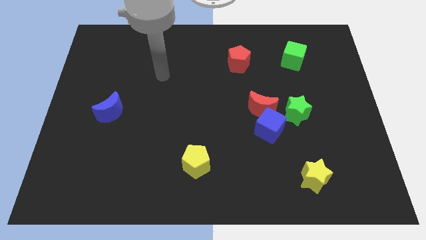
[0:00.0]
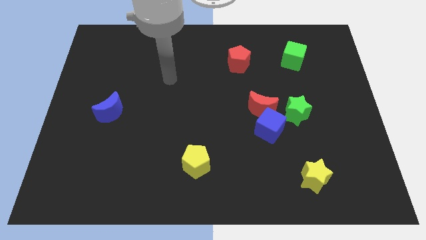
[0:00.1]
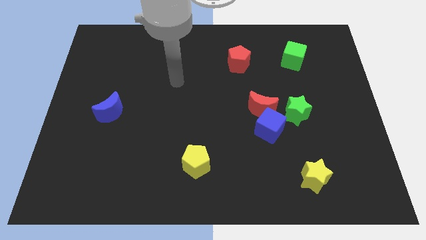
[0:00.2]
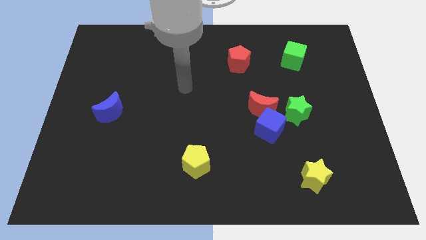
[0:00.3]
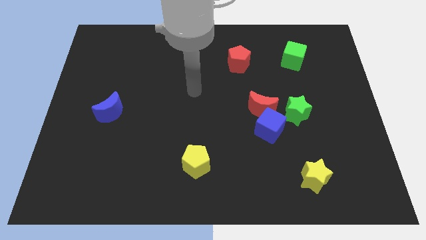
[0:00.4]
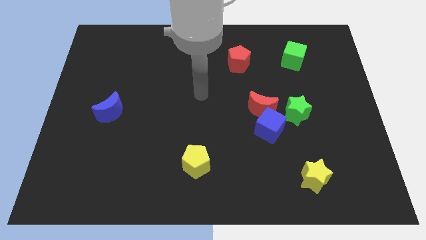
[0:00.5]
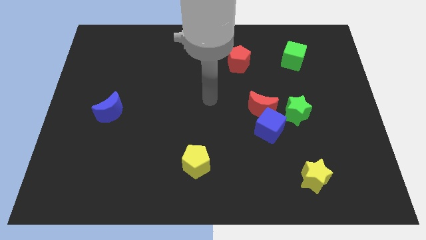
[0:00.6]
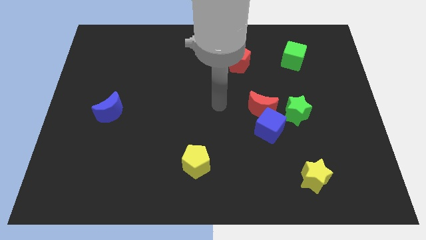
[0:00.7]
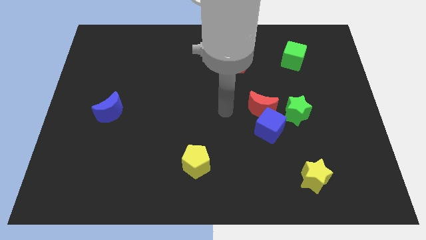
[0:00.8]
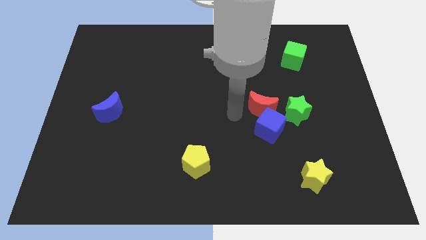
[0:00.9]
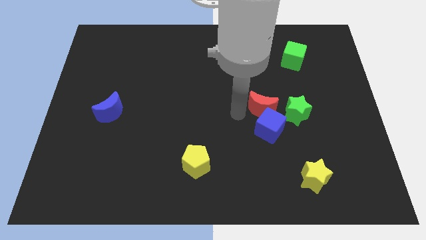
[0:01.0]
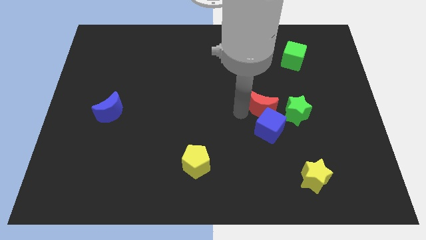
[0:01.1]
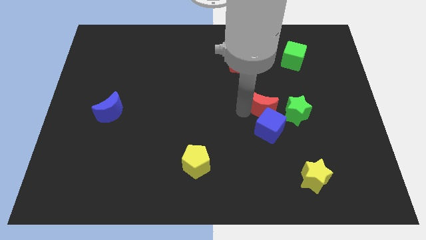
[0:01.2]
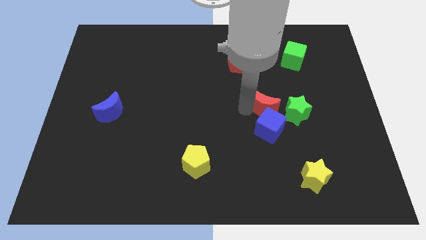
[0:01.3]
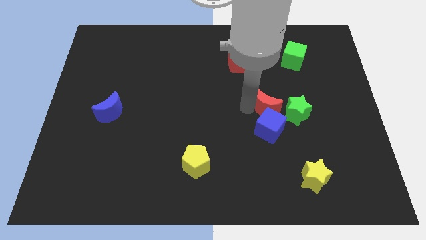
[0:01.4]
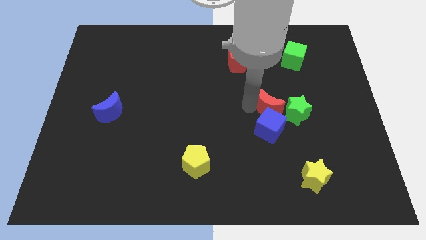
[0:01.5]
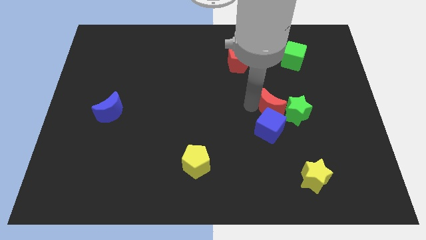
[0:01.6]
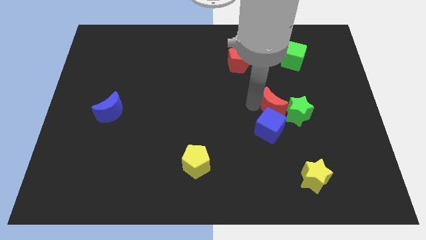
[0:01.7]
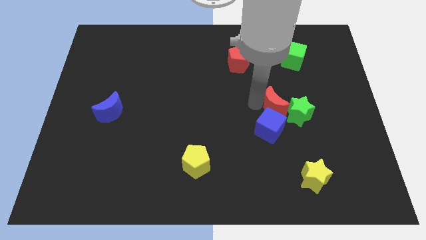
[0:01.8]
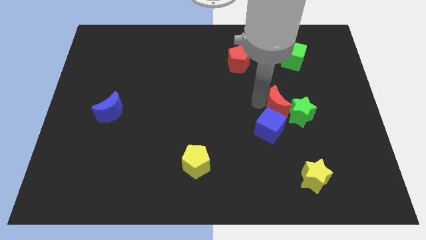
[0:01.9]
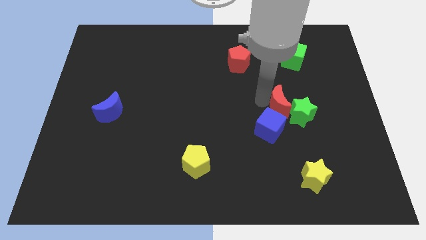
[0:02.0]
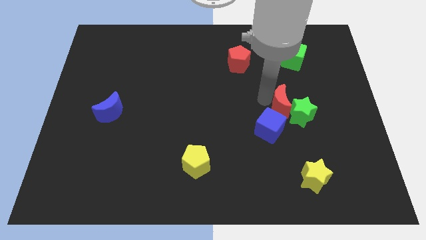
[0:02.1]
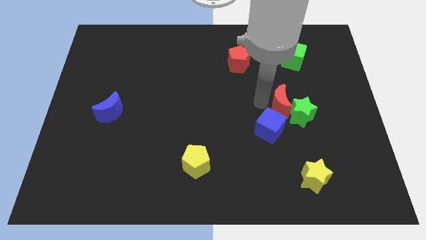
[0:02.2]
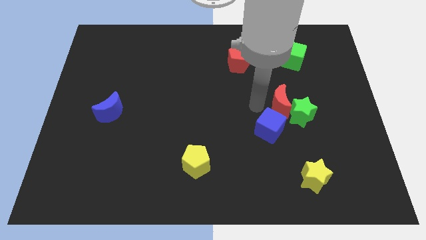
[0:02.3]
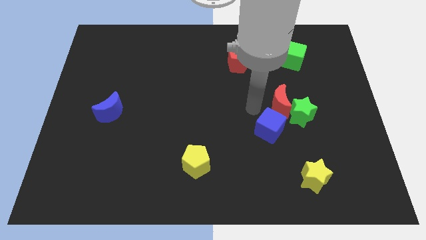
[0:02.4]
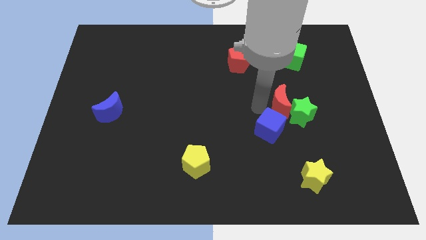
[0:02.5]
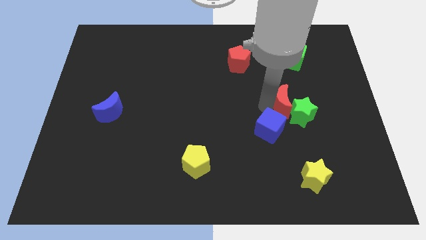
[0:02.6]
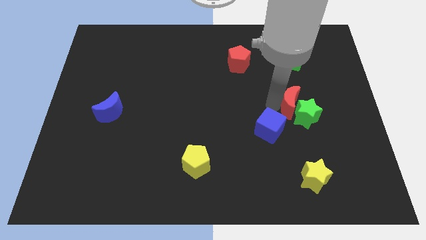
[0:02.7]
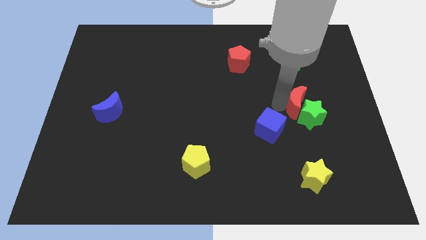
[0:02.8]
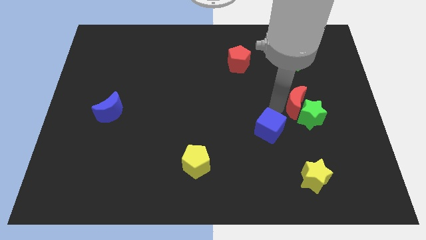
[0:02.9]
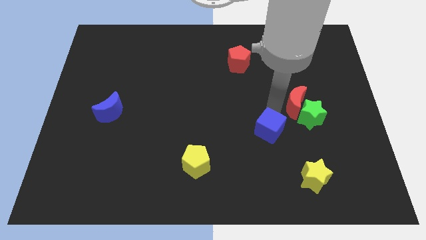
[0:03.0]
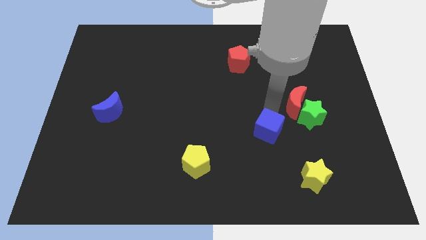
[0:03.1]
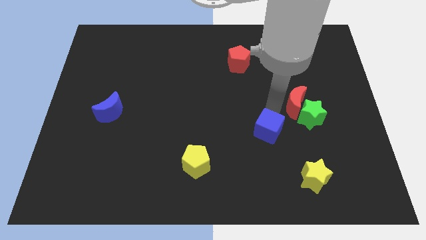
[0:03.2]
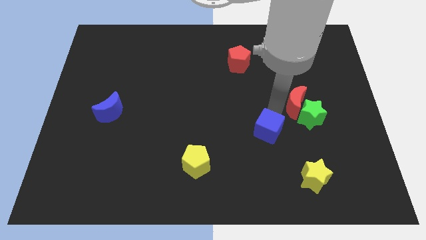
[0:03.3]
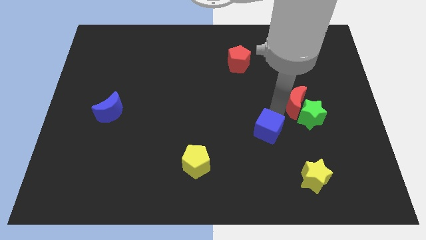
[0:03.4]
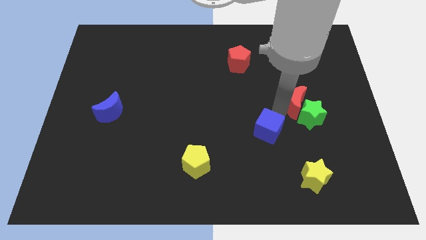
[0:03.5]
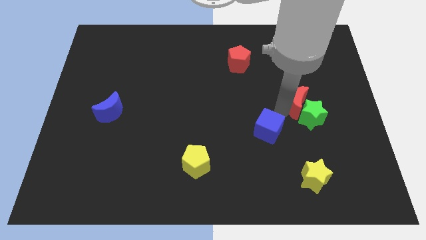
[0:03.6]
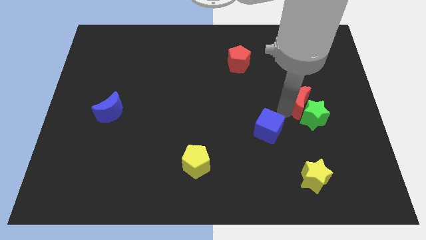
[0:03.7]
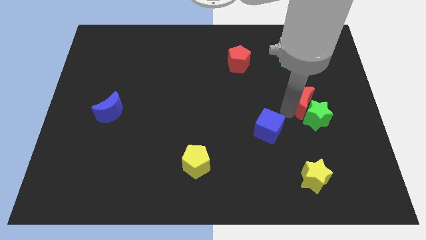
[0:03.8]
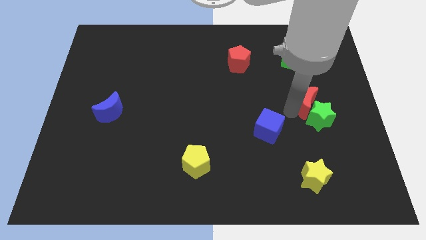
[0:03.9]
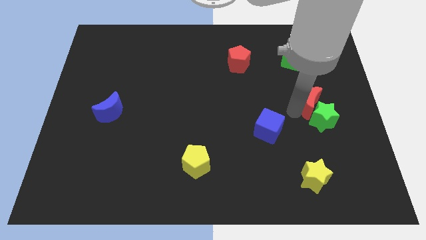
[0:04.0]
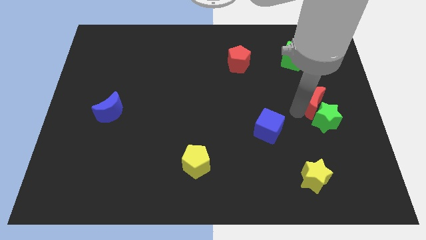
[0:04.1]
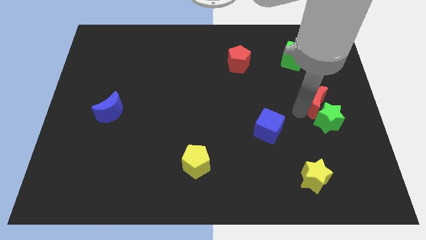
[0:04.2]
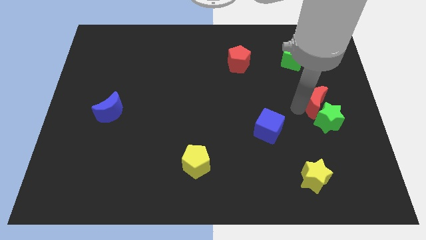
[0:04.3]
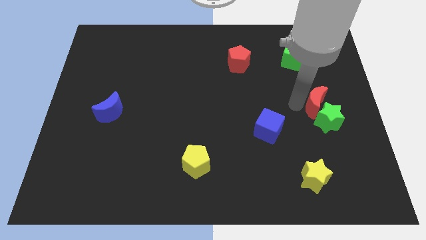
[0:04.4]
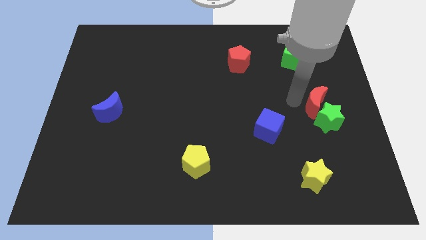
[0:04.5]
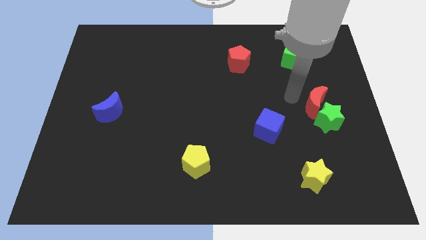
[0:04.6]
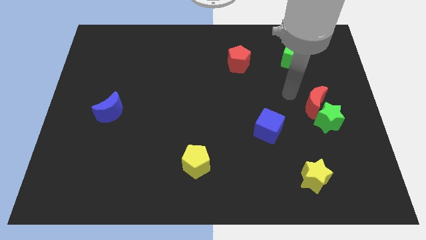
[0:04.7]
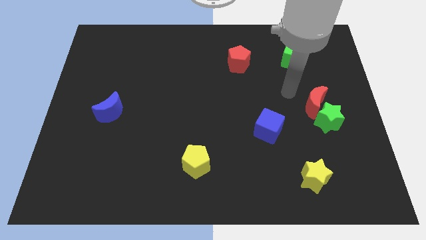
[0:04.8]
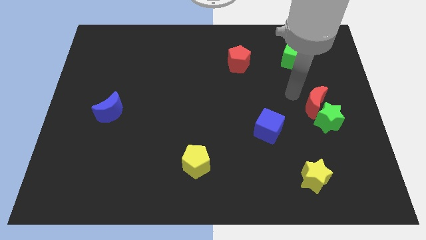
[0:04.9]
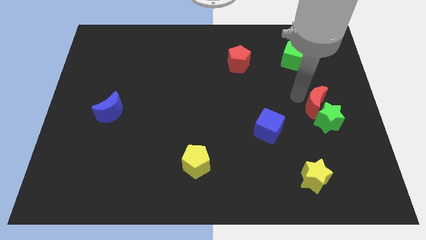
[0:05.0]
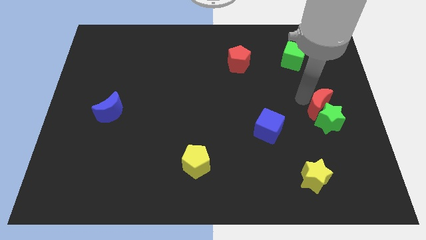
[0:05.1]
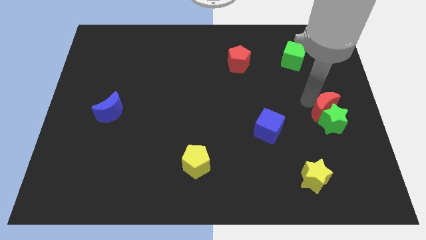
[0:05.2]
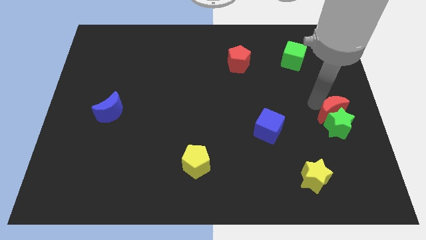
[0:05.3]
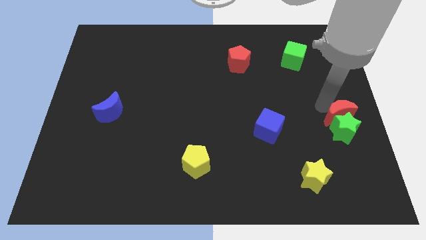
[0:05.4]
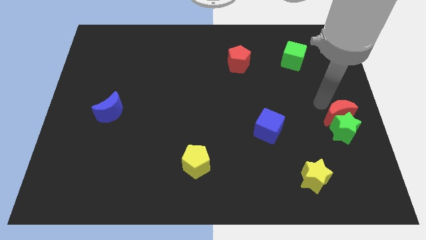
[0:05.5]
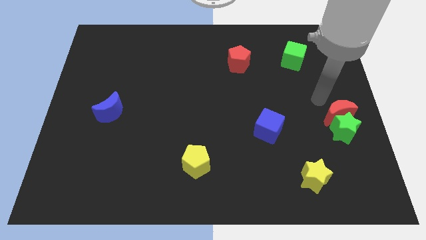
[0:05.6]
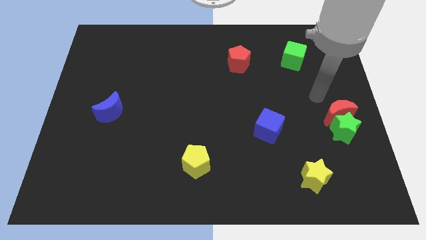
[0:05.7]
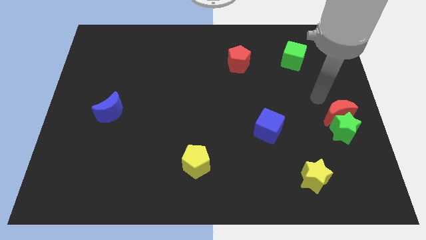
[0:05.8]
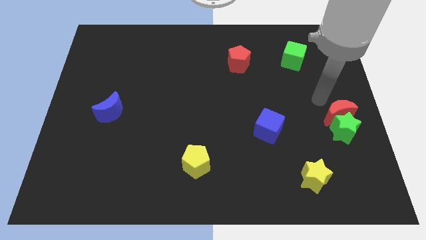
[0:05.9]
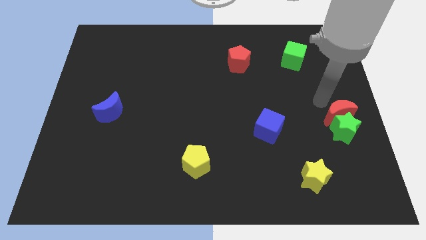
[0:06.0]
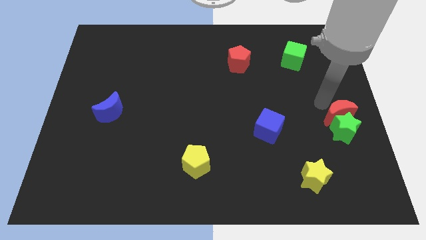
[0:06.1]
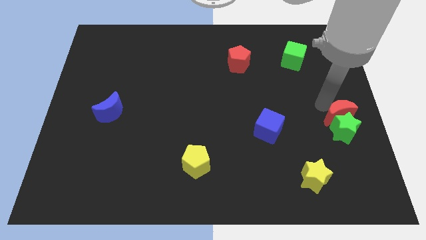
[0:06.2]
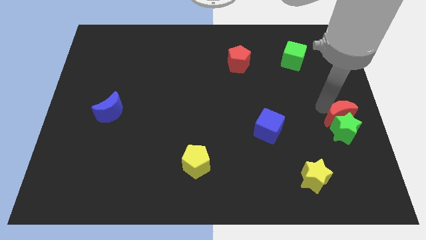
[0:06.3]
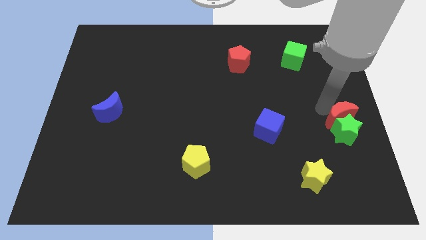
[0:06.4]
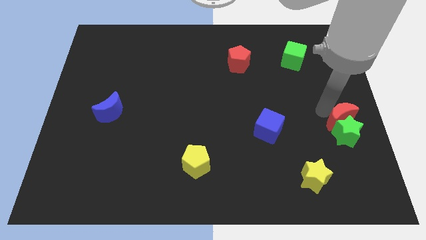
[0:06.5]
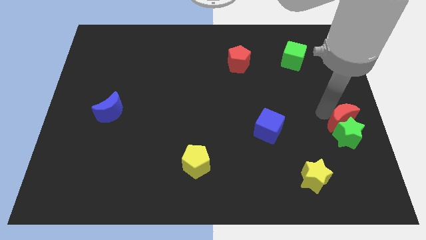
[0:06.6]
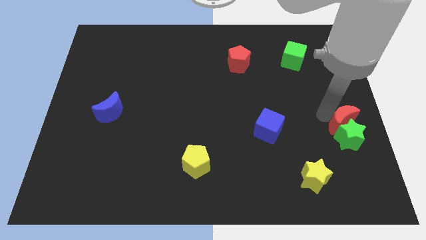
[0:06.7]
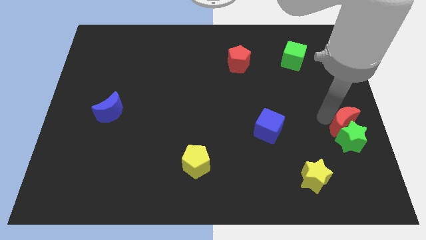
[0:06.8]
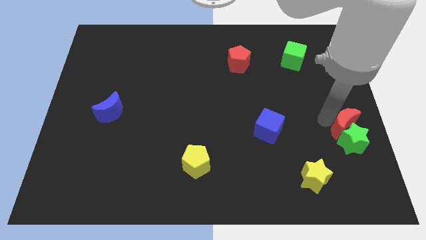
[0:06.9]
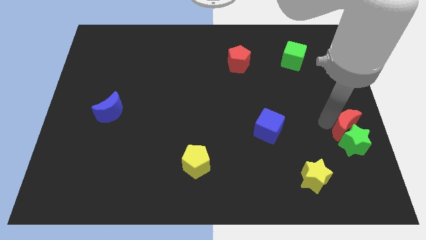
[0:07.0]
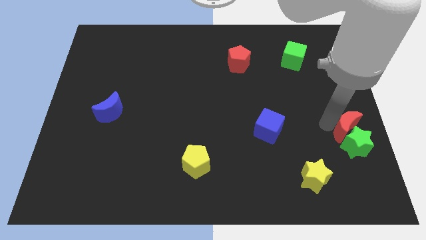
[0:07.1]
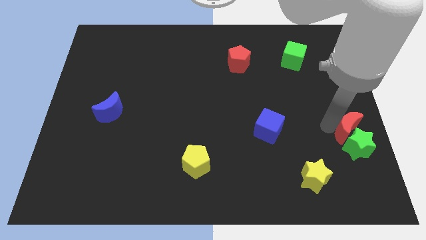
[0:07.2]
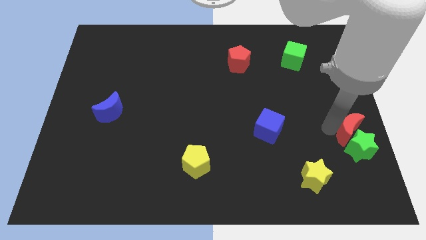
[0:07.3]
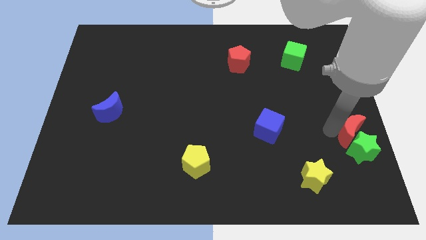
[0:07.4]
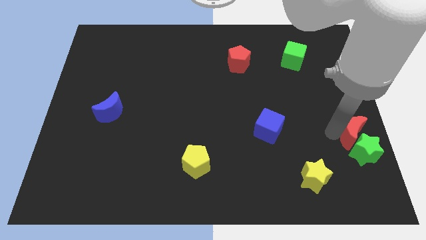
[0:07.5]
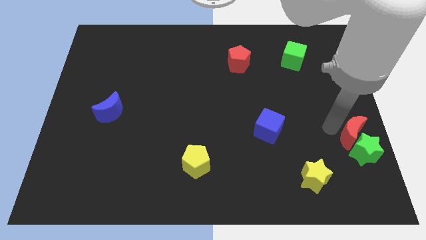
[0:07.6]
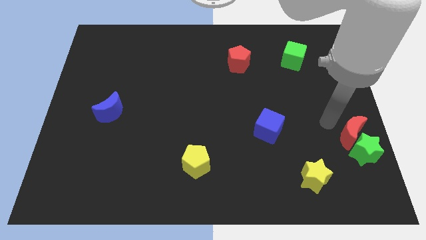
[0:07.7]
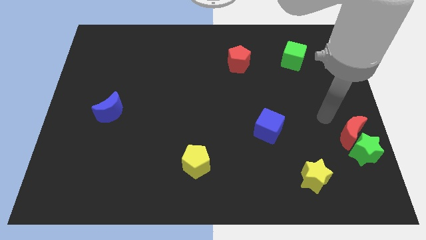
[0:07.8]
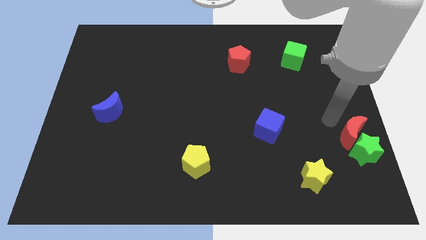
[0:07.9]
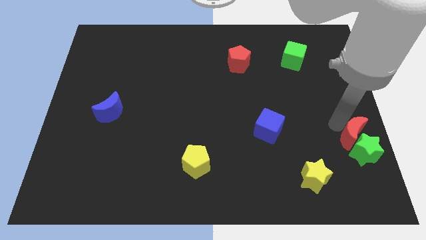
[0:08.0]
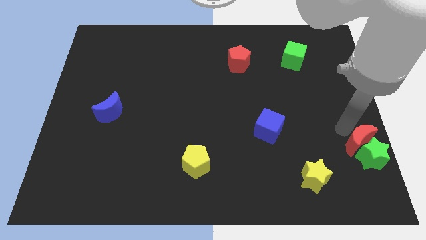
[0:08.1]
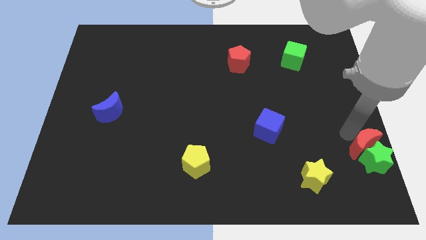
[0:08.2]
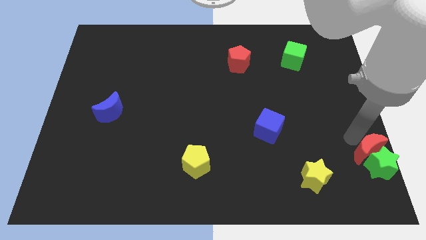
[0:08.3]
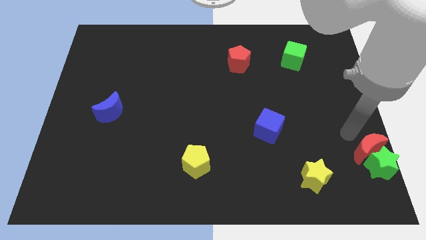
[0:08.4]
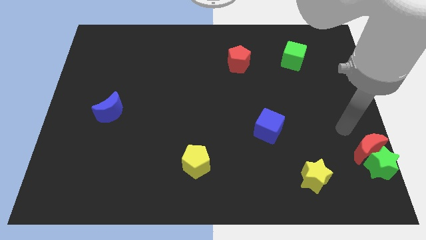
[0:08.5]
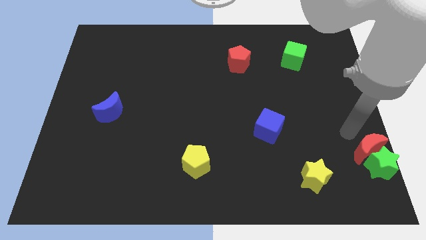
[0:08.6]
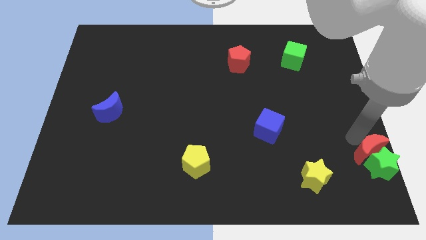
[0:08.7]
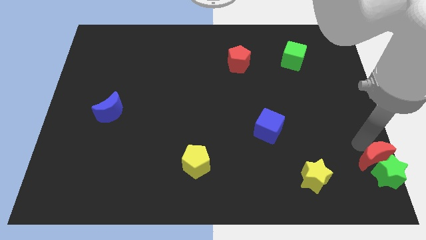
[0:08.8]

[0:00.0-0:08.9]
put the red moon to the bottom right
